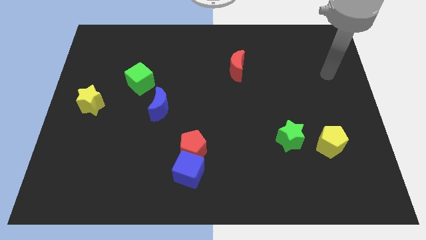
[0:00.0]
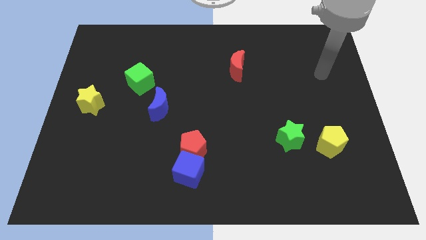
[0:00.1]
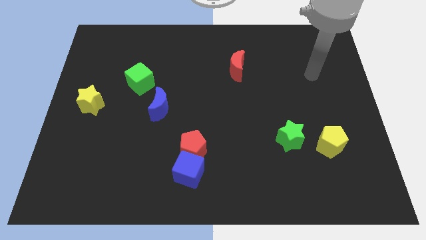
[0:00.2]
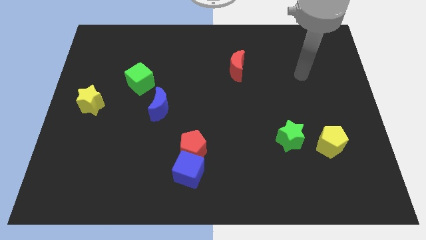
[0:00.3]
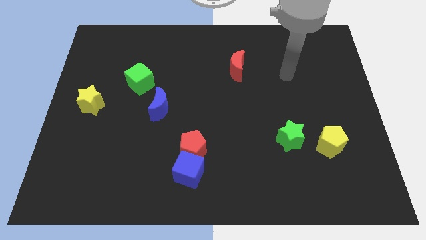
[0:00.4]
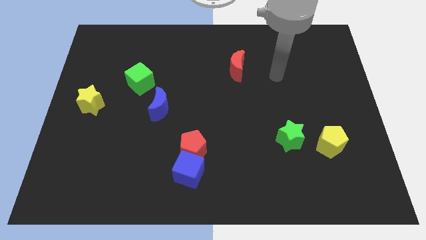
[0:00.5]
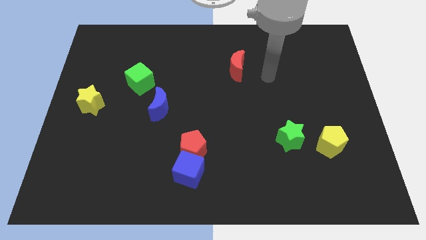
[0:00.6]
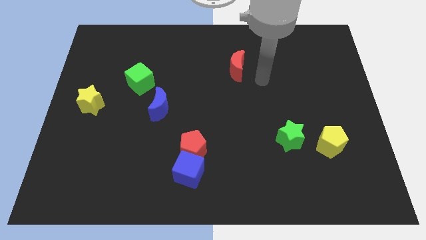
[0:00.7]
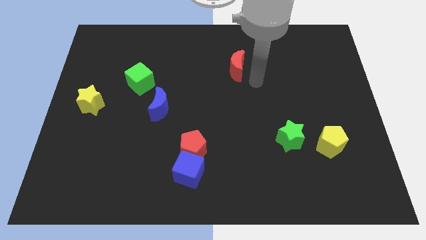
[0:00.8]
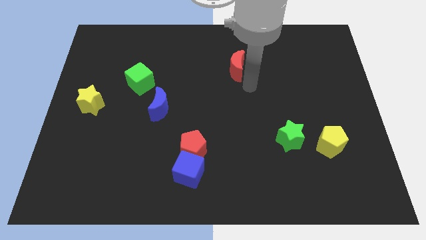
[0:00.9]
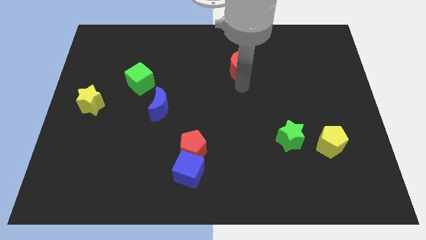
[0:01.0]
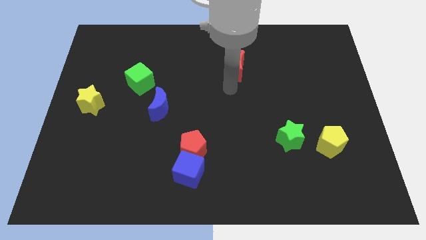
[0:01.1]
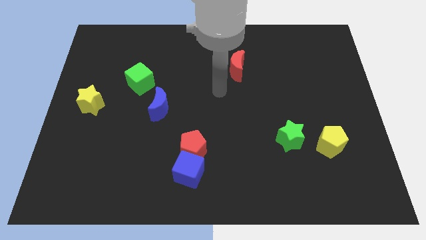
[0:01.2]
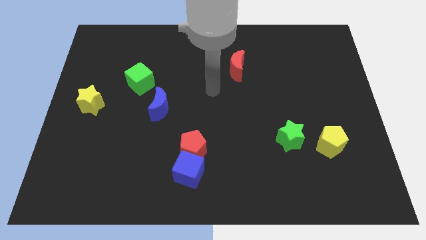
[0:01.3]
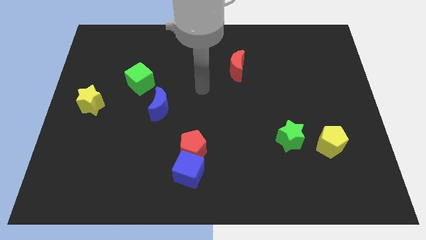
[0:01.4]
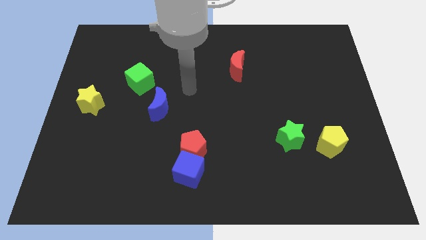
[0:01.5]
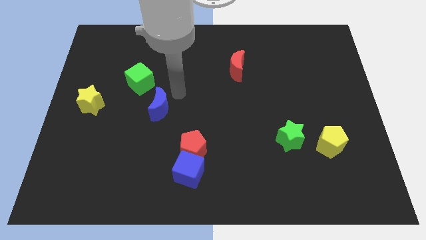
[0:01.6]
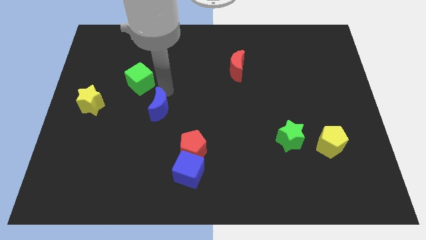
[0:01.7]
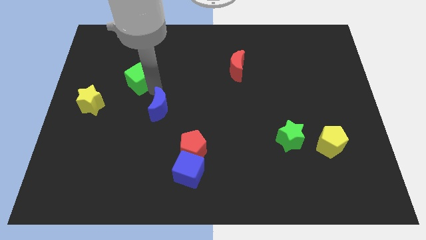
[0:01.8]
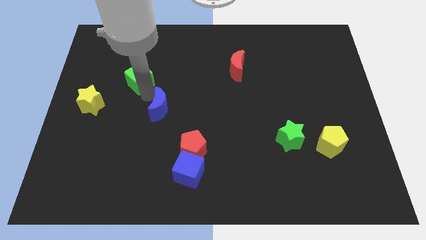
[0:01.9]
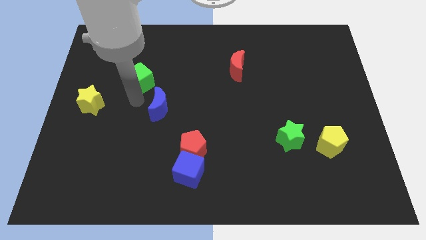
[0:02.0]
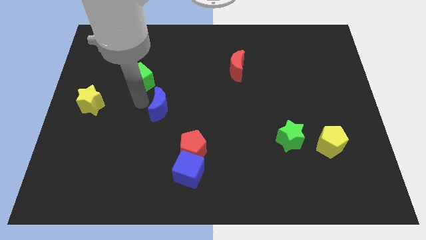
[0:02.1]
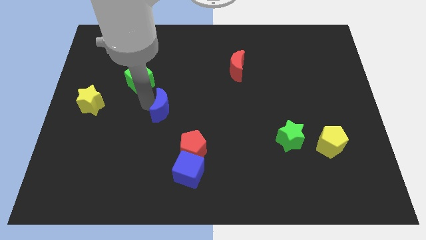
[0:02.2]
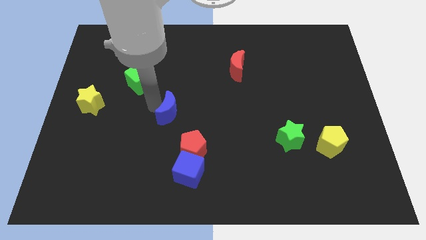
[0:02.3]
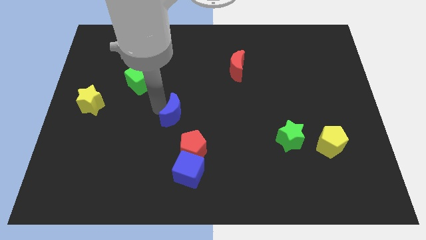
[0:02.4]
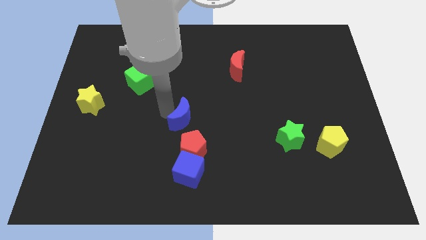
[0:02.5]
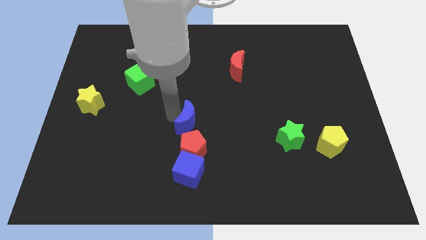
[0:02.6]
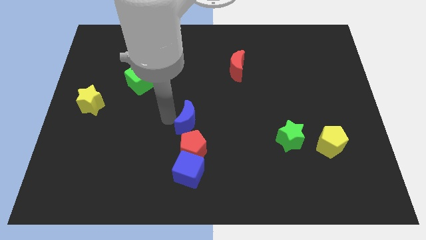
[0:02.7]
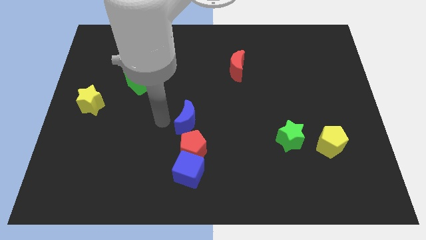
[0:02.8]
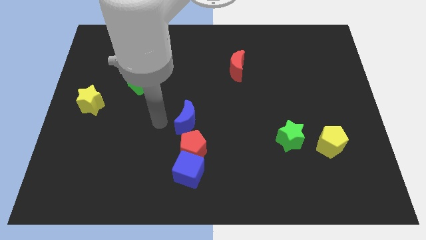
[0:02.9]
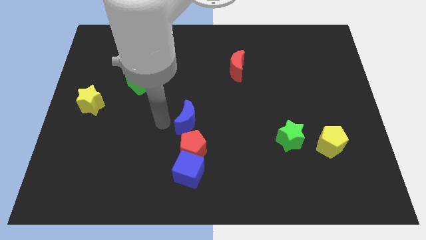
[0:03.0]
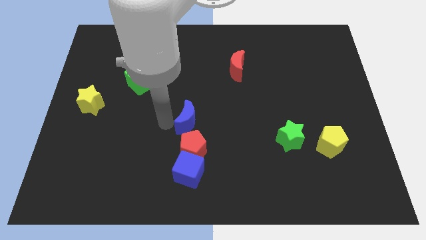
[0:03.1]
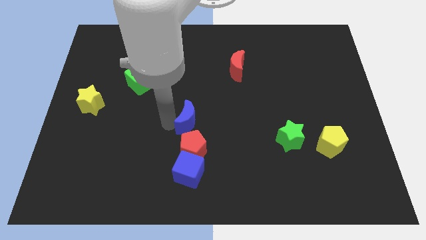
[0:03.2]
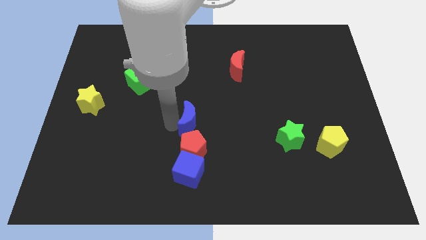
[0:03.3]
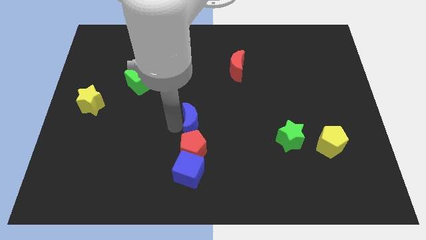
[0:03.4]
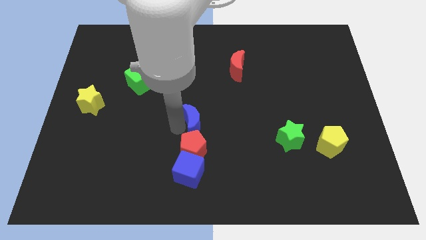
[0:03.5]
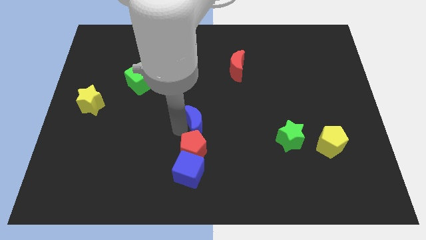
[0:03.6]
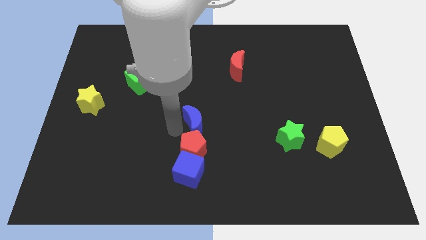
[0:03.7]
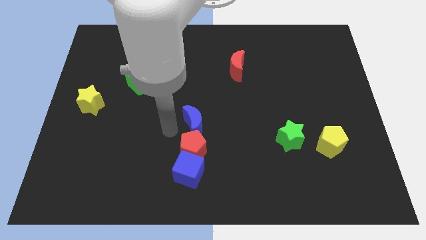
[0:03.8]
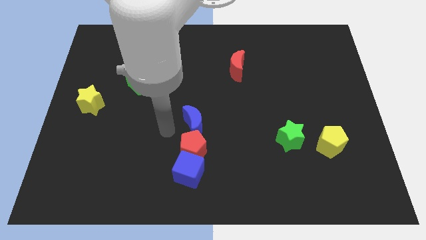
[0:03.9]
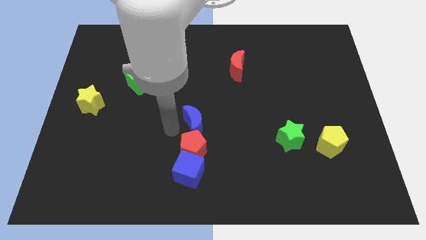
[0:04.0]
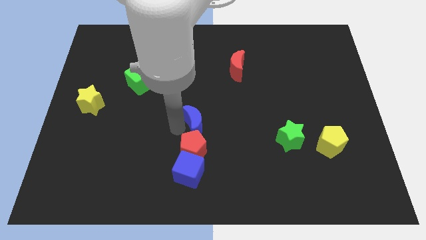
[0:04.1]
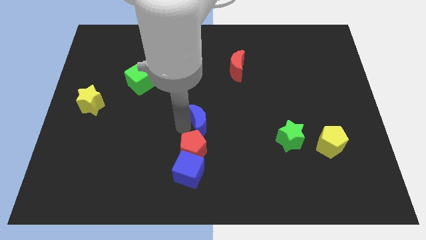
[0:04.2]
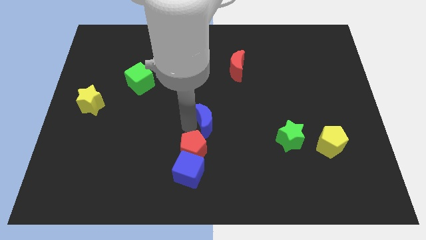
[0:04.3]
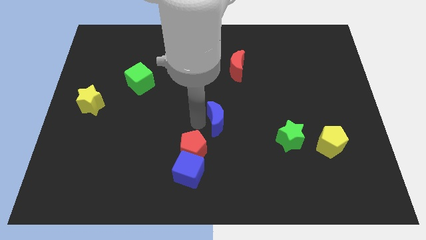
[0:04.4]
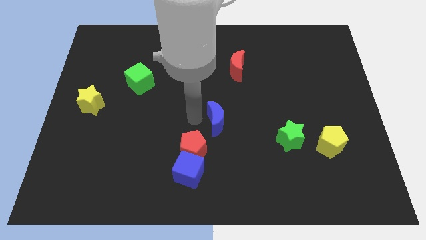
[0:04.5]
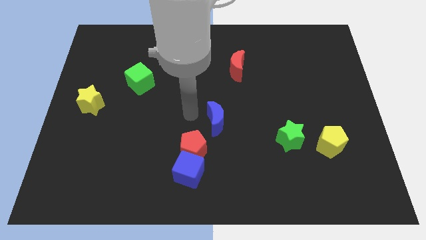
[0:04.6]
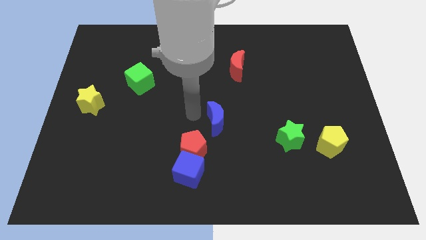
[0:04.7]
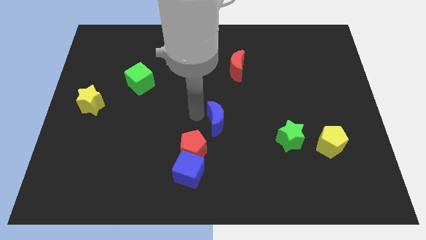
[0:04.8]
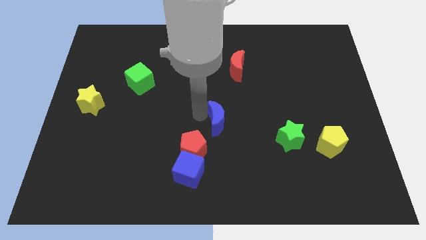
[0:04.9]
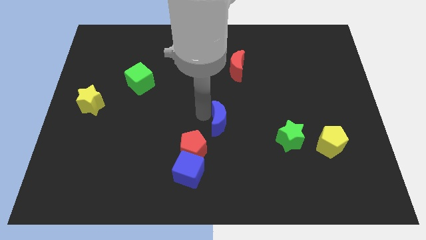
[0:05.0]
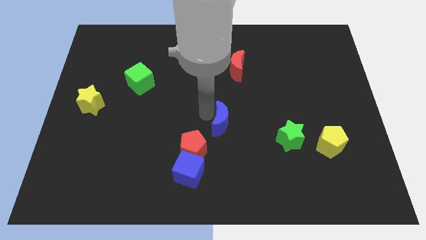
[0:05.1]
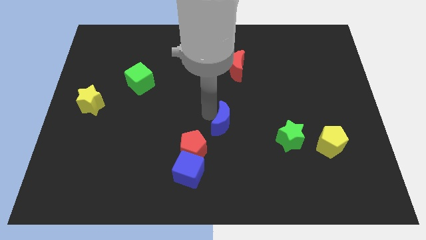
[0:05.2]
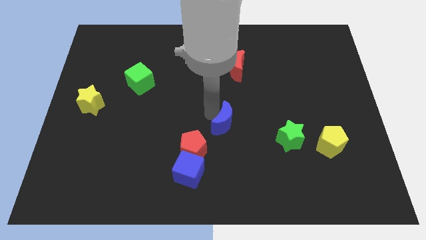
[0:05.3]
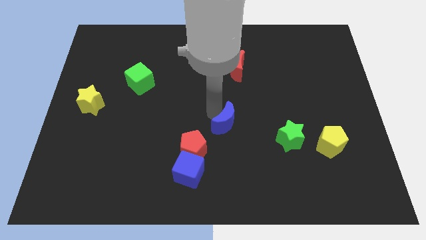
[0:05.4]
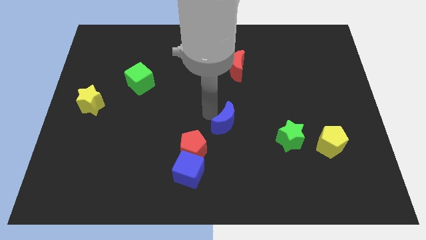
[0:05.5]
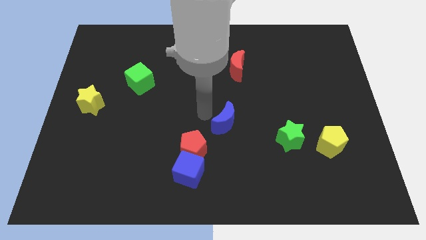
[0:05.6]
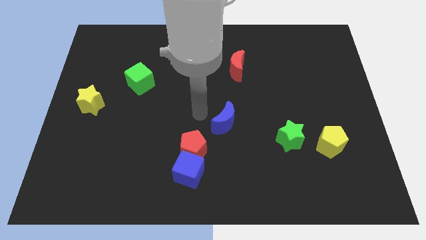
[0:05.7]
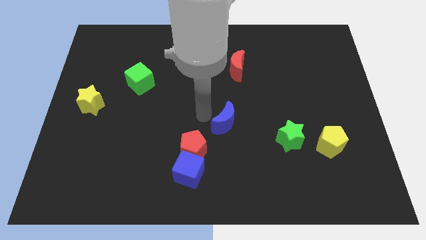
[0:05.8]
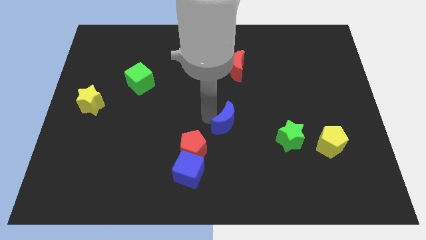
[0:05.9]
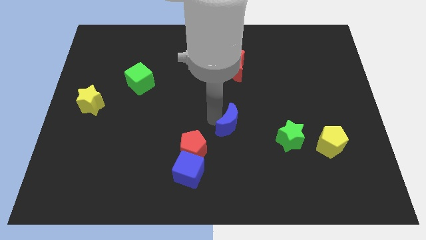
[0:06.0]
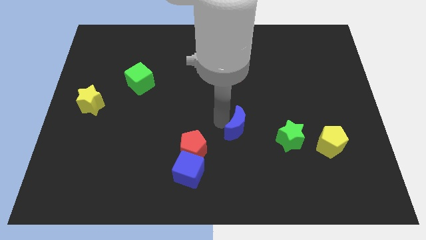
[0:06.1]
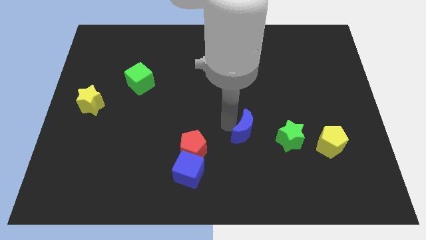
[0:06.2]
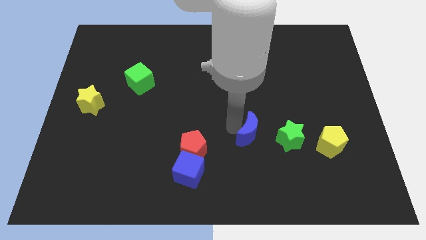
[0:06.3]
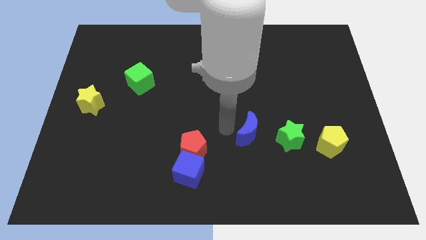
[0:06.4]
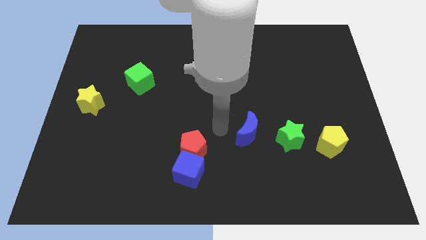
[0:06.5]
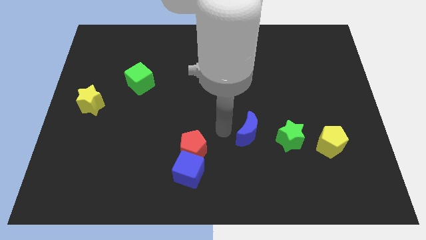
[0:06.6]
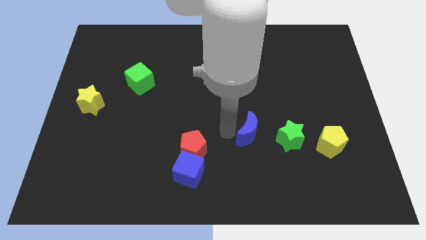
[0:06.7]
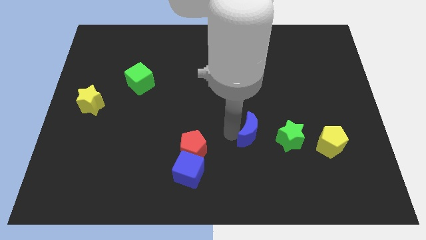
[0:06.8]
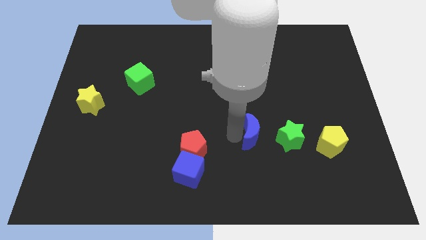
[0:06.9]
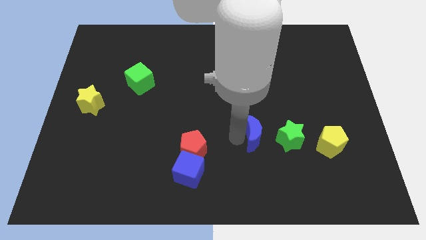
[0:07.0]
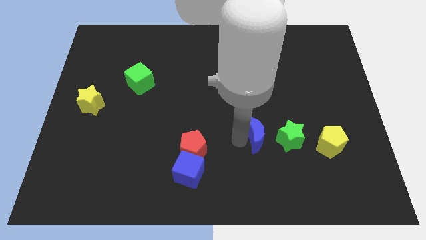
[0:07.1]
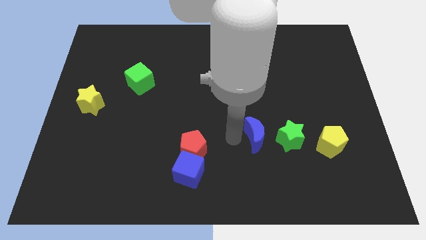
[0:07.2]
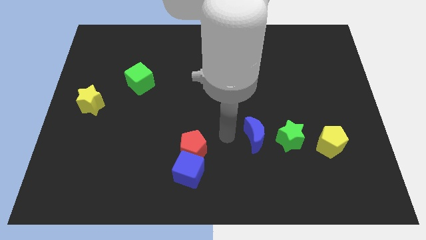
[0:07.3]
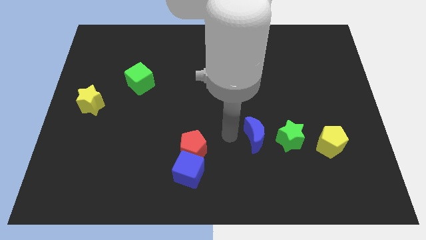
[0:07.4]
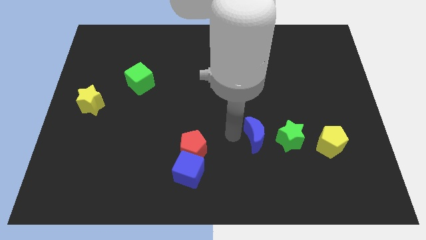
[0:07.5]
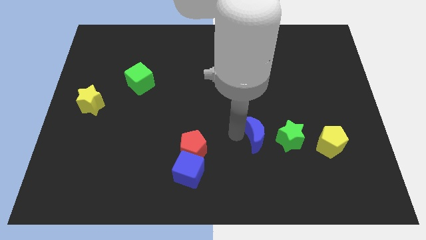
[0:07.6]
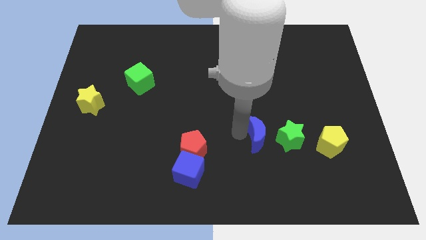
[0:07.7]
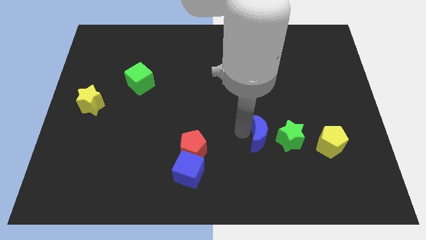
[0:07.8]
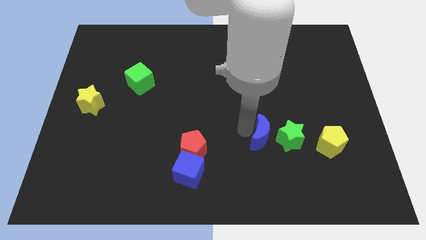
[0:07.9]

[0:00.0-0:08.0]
push the blue moon to the green star

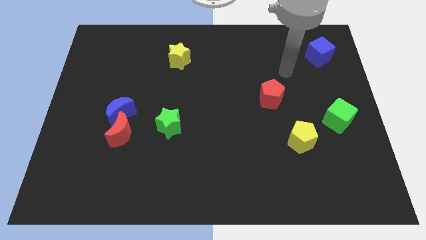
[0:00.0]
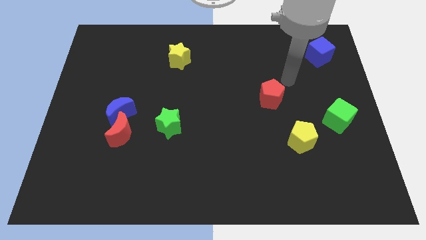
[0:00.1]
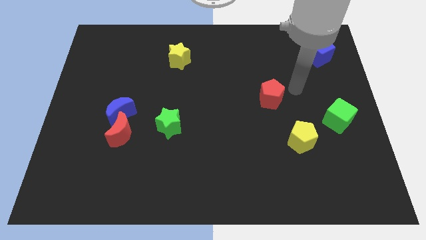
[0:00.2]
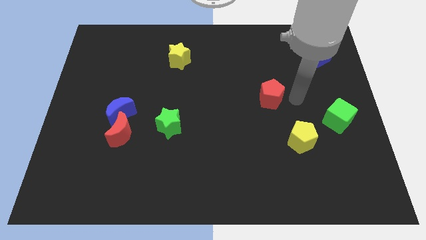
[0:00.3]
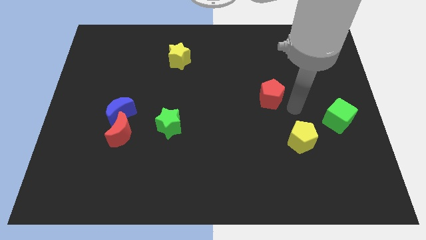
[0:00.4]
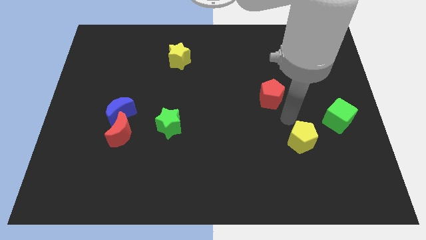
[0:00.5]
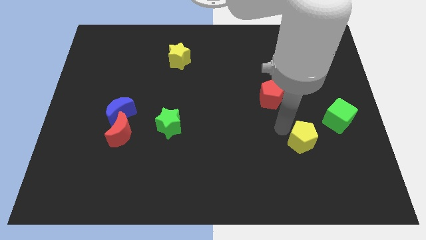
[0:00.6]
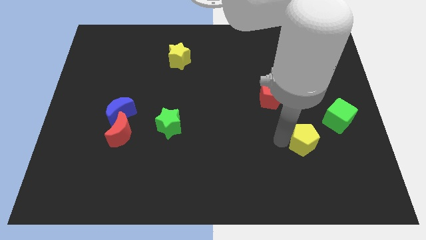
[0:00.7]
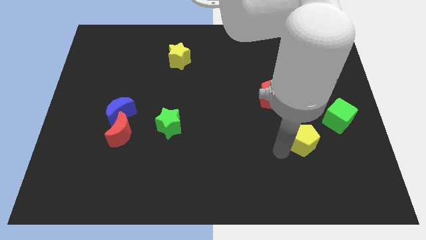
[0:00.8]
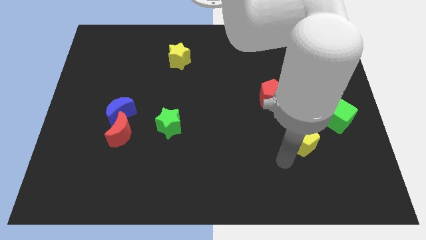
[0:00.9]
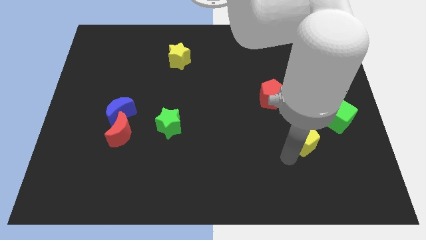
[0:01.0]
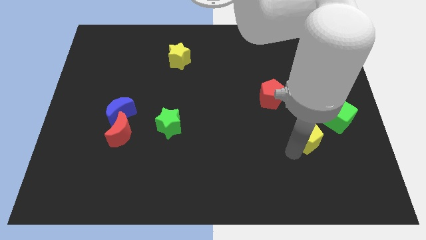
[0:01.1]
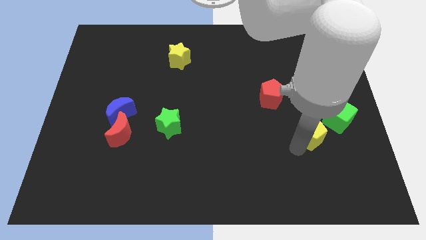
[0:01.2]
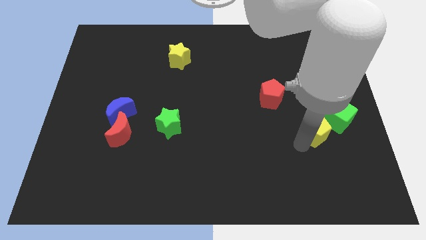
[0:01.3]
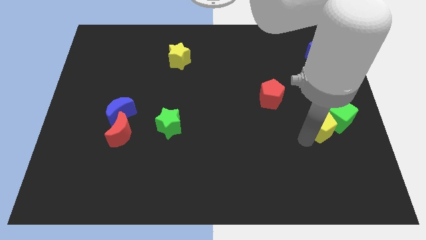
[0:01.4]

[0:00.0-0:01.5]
put the yellow pentagon close to the green cube
